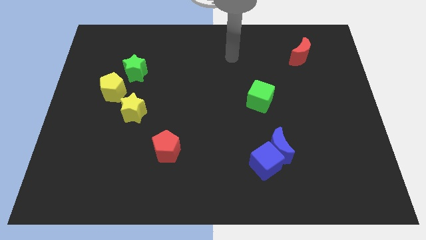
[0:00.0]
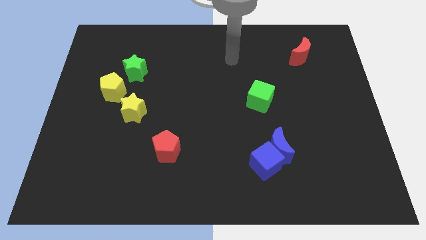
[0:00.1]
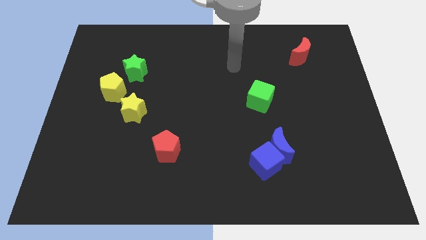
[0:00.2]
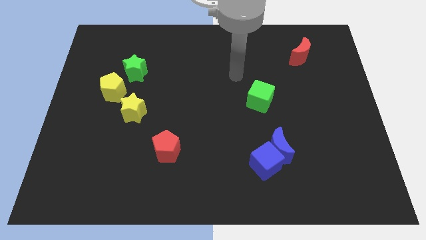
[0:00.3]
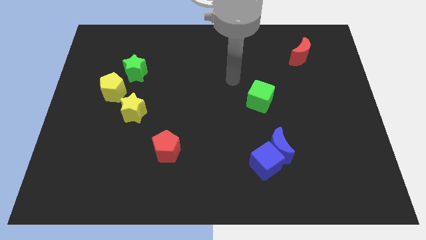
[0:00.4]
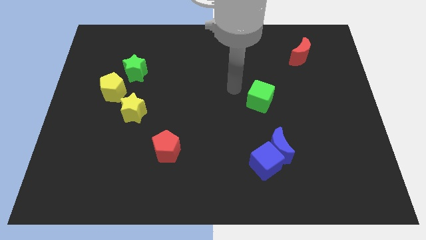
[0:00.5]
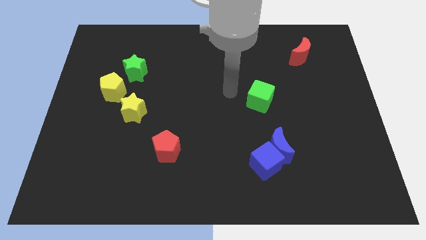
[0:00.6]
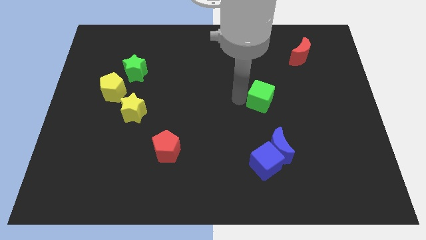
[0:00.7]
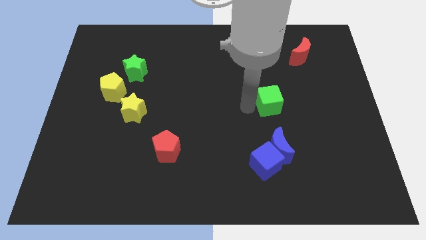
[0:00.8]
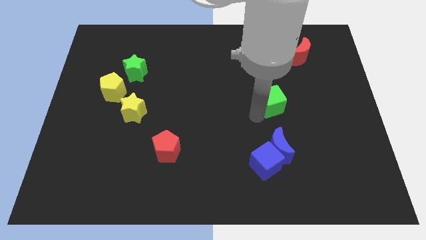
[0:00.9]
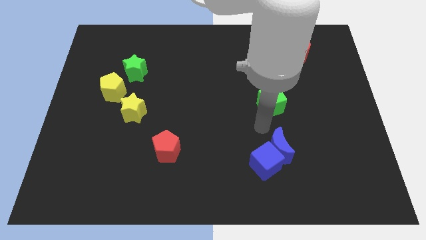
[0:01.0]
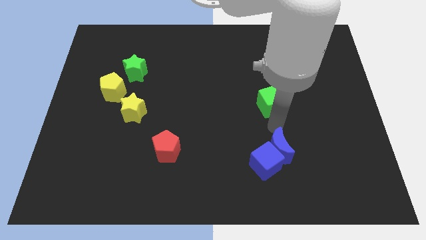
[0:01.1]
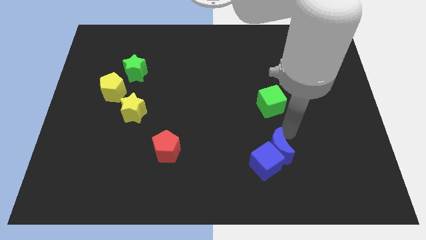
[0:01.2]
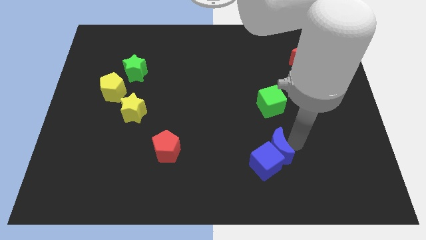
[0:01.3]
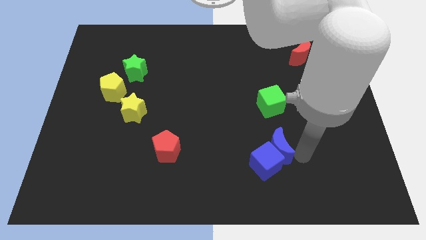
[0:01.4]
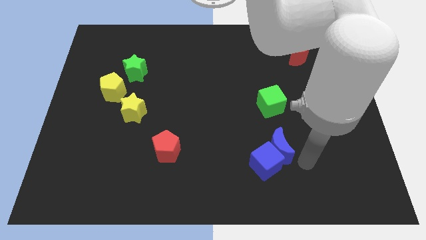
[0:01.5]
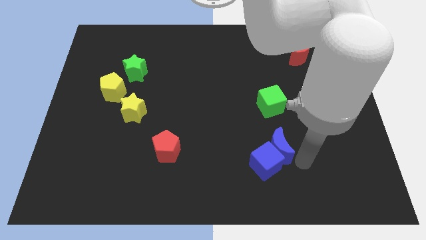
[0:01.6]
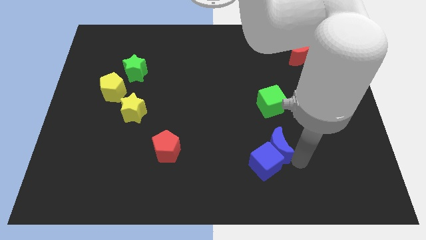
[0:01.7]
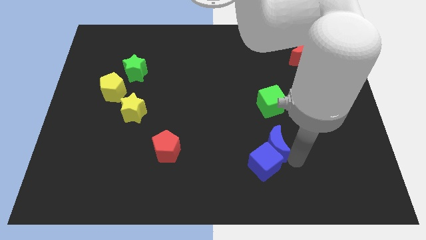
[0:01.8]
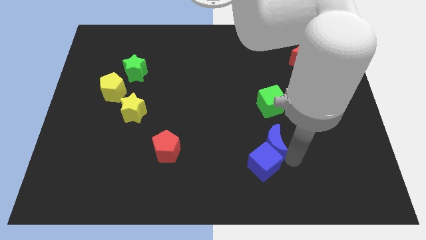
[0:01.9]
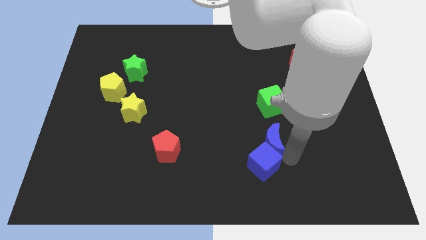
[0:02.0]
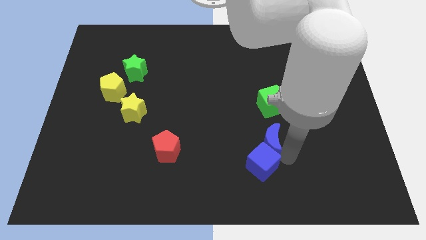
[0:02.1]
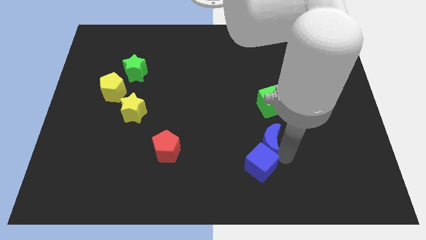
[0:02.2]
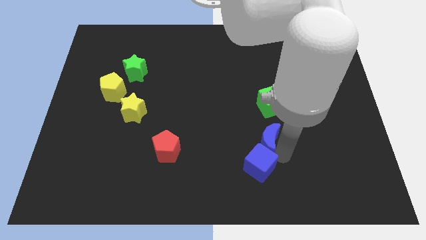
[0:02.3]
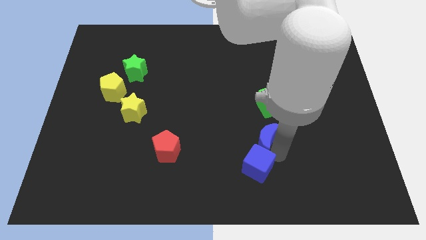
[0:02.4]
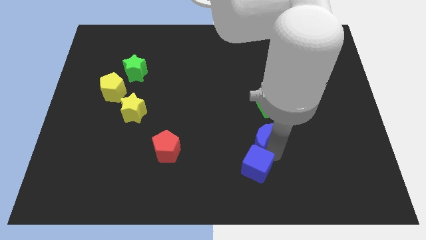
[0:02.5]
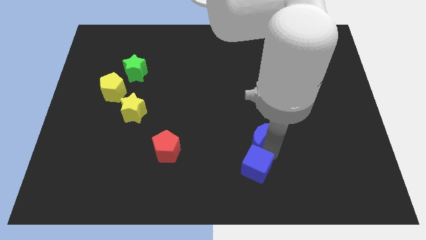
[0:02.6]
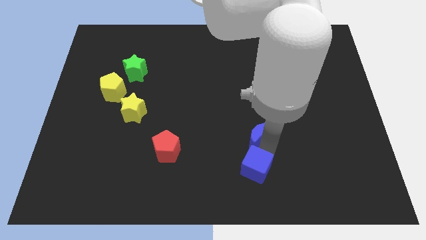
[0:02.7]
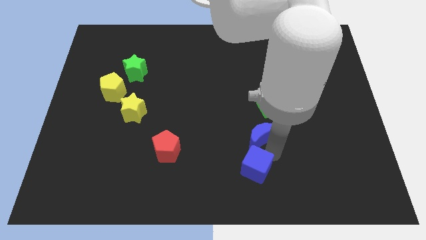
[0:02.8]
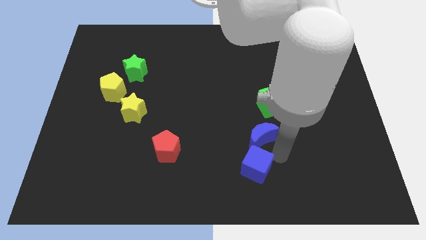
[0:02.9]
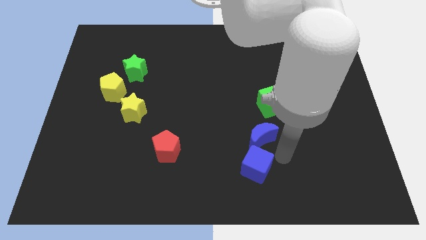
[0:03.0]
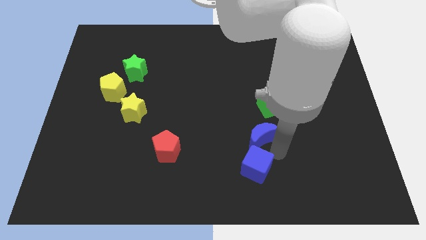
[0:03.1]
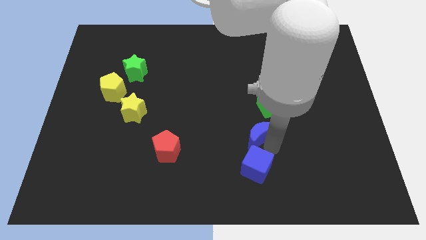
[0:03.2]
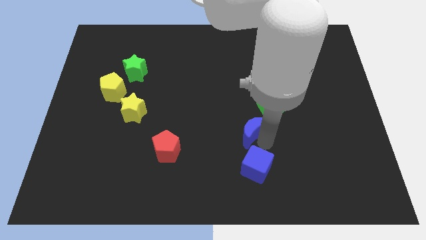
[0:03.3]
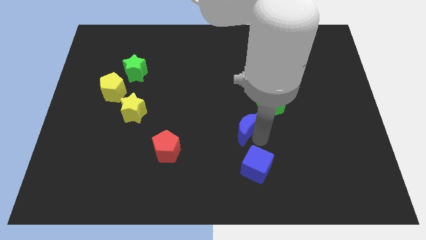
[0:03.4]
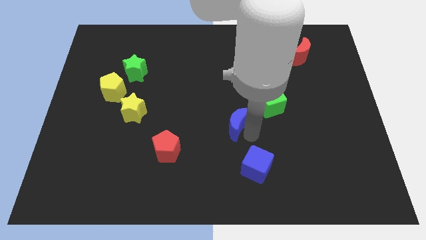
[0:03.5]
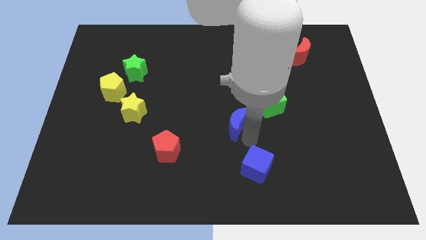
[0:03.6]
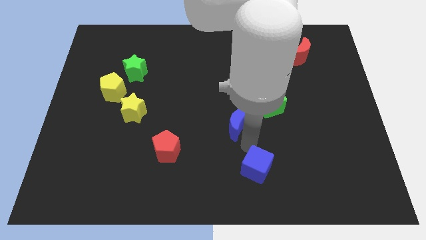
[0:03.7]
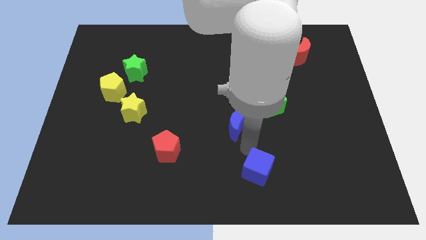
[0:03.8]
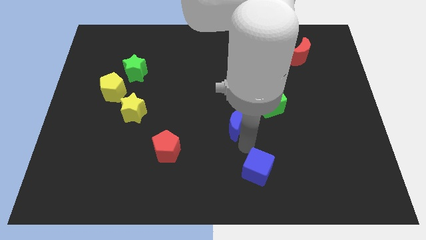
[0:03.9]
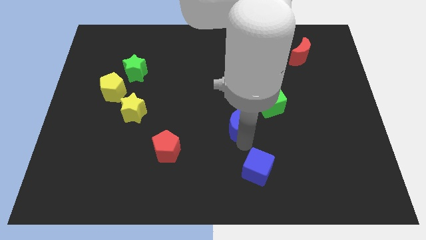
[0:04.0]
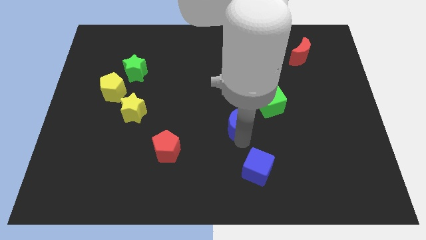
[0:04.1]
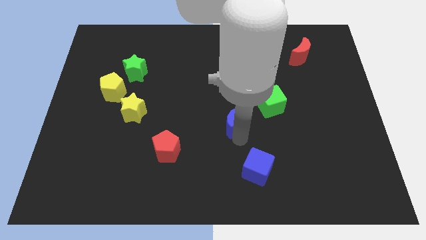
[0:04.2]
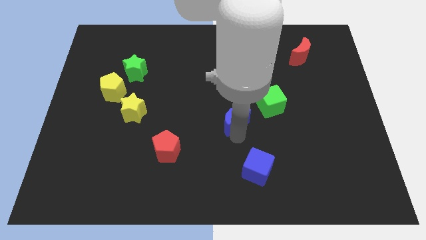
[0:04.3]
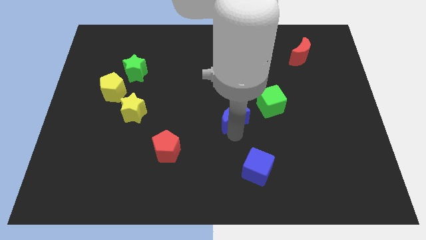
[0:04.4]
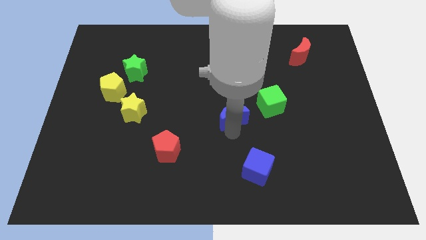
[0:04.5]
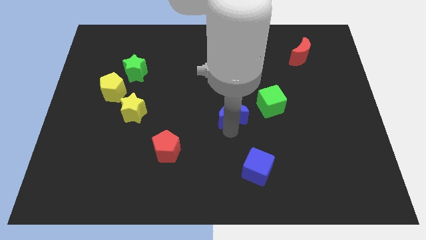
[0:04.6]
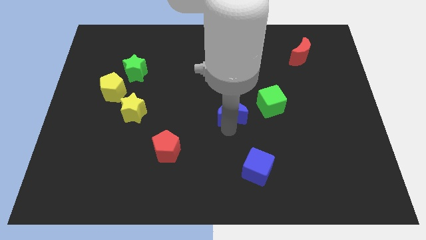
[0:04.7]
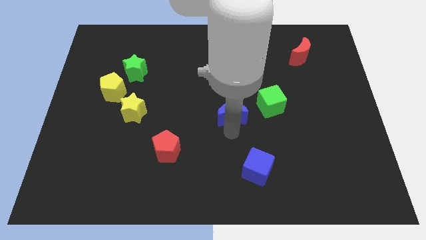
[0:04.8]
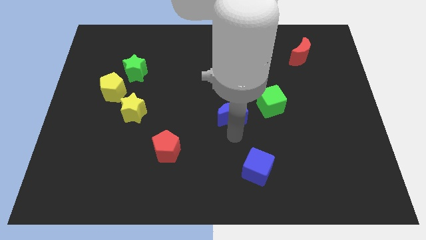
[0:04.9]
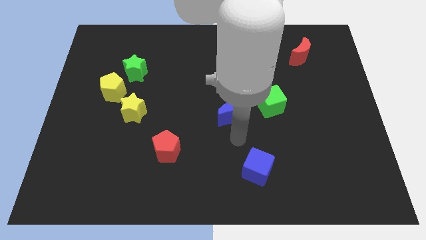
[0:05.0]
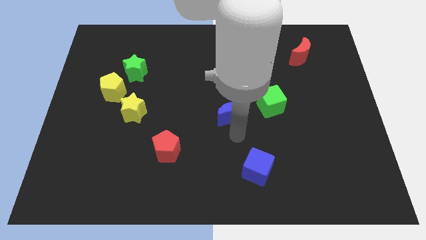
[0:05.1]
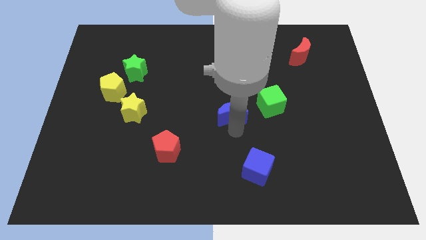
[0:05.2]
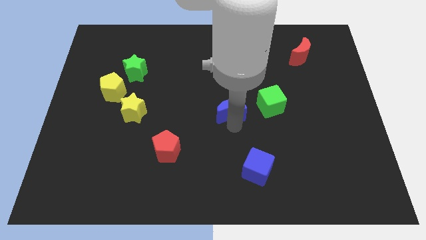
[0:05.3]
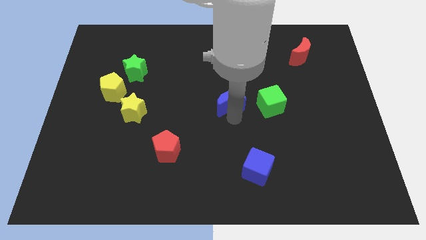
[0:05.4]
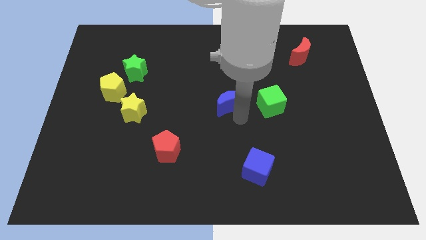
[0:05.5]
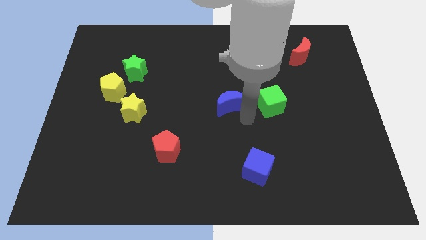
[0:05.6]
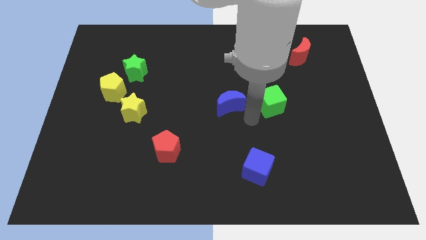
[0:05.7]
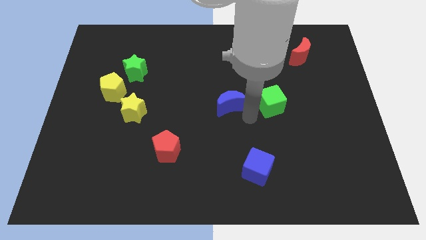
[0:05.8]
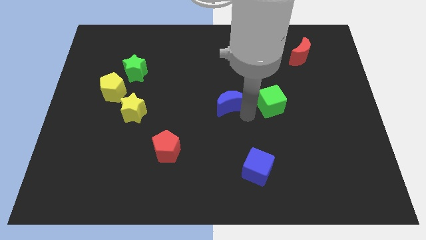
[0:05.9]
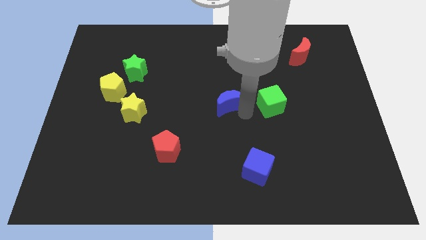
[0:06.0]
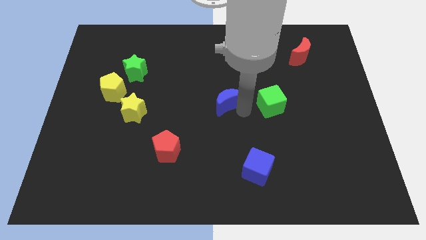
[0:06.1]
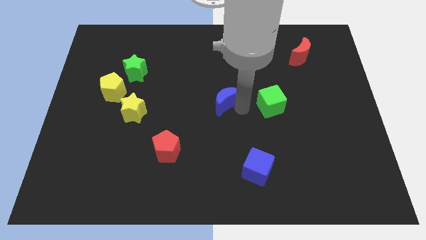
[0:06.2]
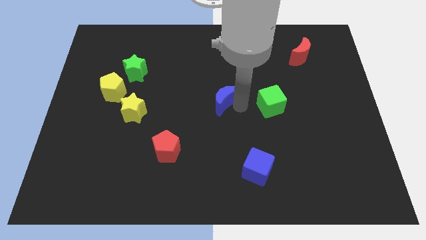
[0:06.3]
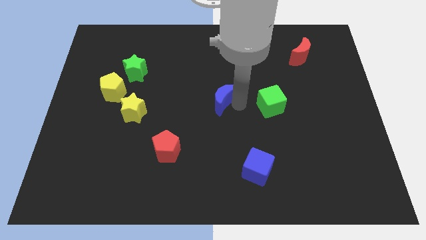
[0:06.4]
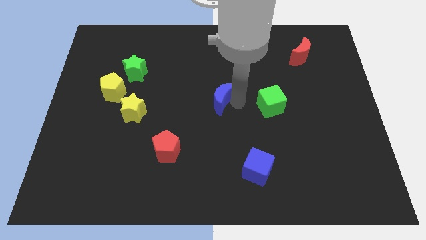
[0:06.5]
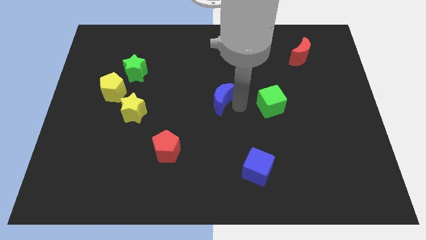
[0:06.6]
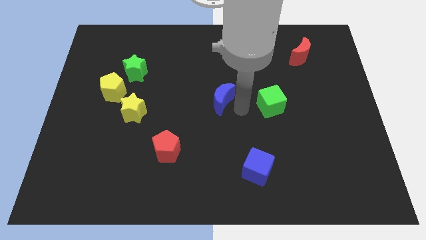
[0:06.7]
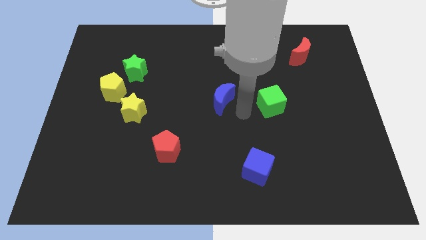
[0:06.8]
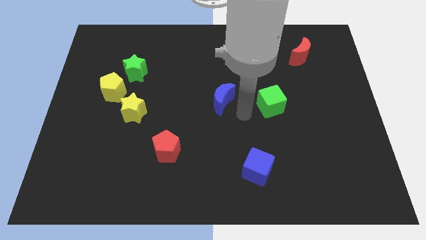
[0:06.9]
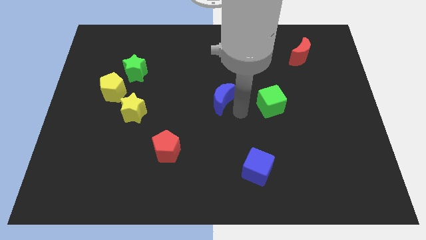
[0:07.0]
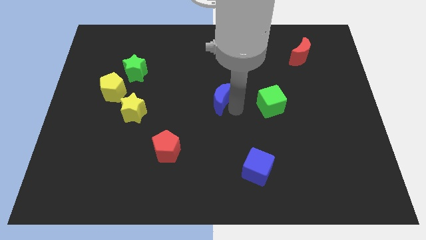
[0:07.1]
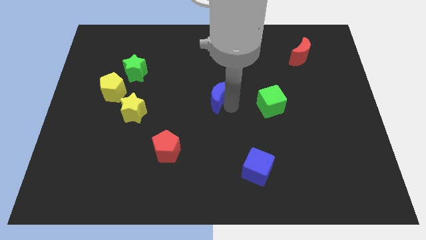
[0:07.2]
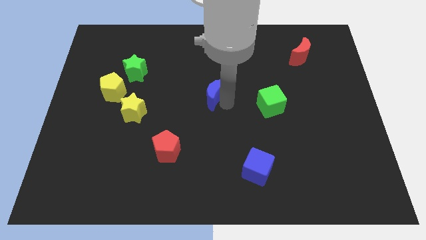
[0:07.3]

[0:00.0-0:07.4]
slide the blue moon up and to the left

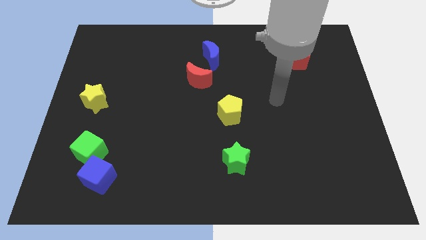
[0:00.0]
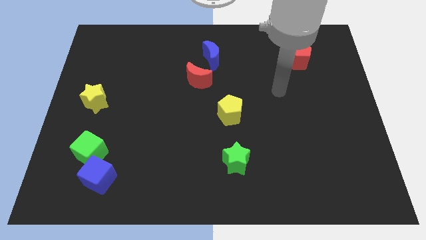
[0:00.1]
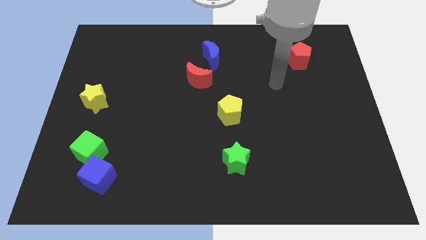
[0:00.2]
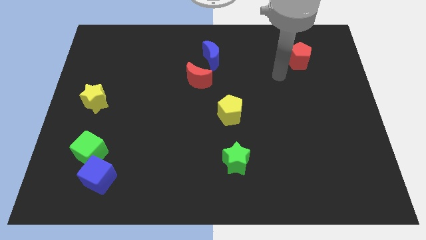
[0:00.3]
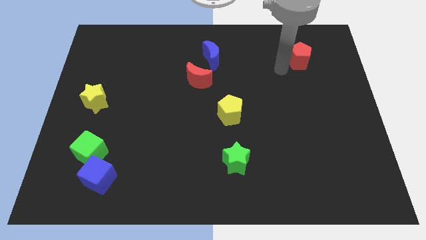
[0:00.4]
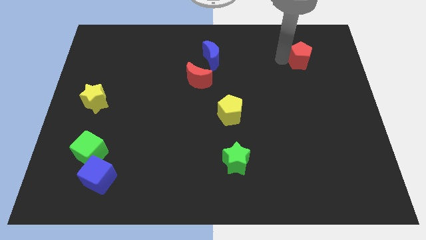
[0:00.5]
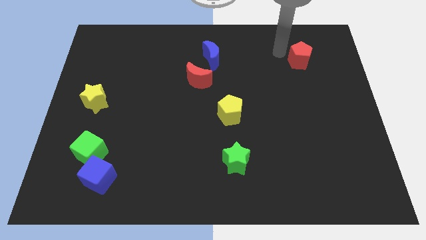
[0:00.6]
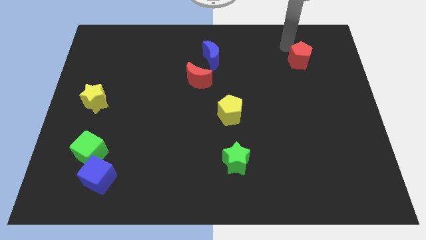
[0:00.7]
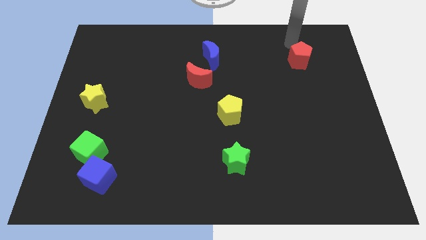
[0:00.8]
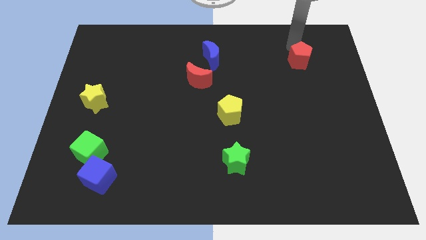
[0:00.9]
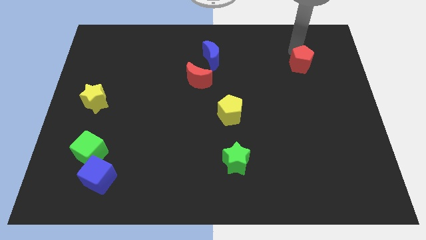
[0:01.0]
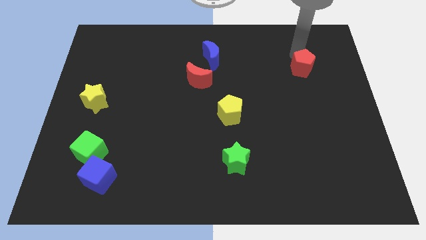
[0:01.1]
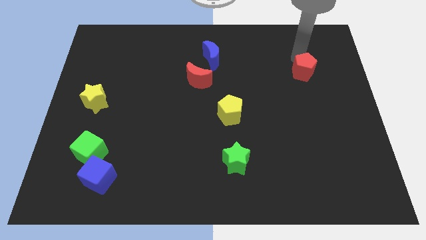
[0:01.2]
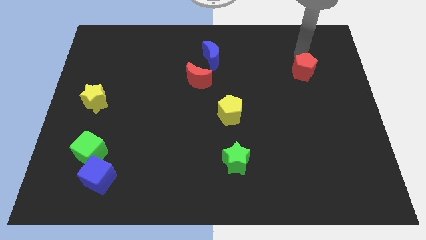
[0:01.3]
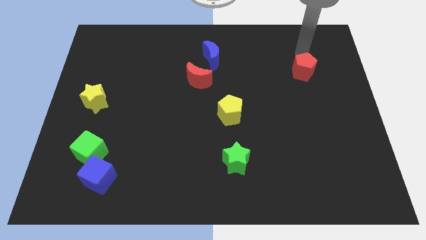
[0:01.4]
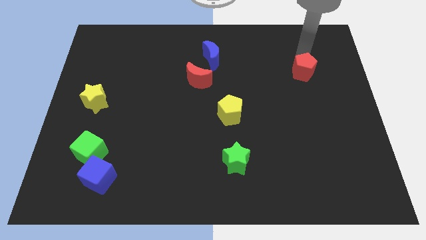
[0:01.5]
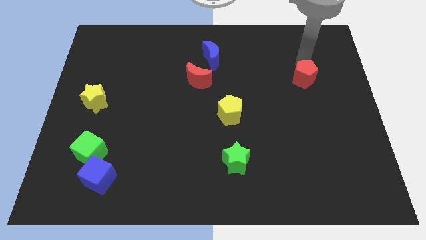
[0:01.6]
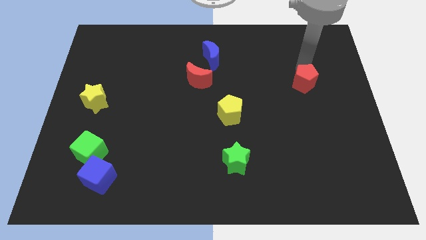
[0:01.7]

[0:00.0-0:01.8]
slightly push the red pentagon downwards
